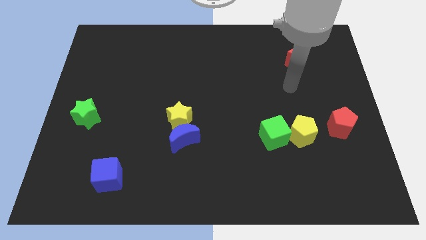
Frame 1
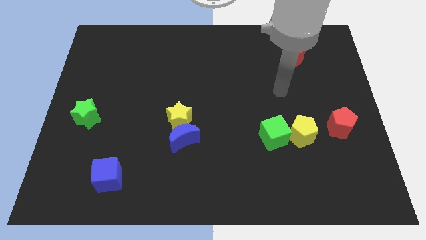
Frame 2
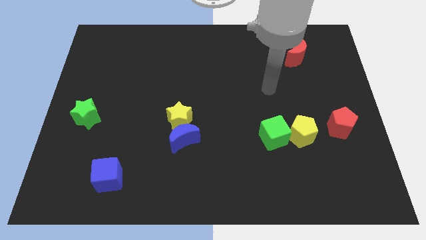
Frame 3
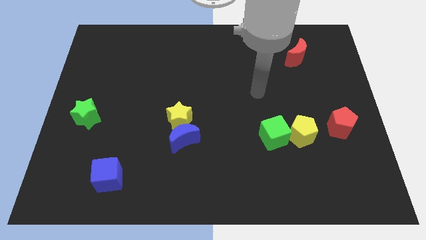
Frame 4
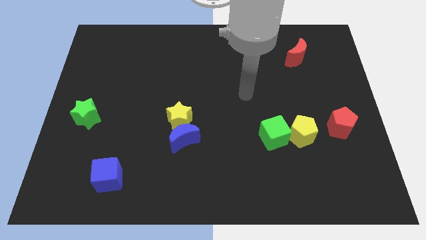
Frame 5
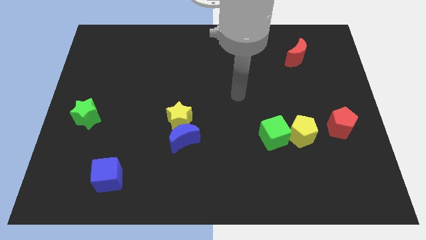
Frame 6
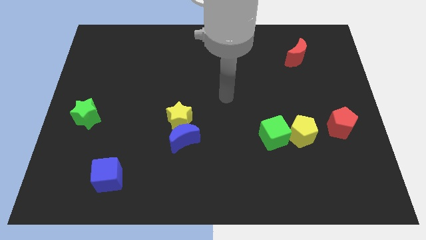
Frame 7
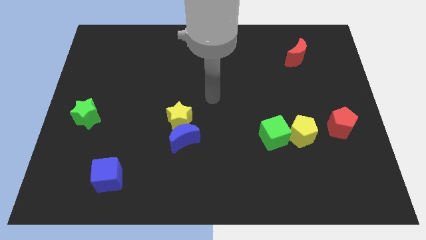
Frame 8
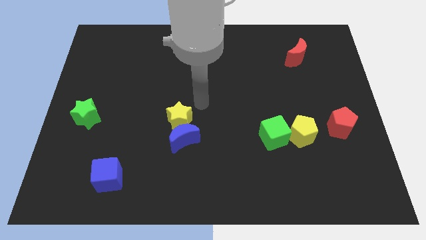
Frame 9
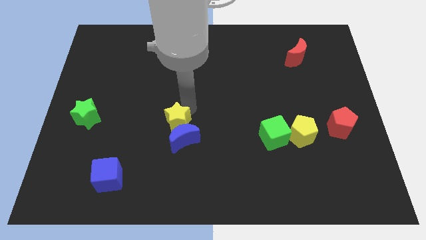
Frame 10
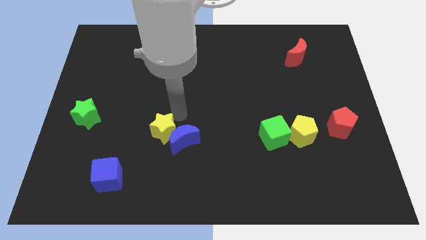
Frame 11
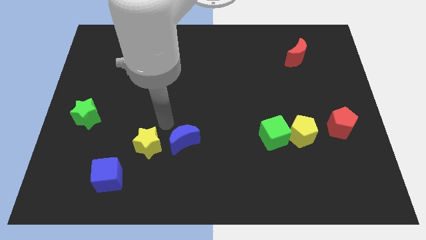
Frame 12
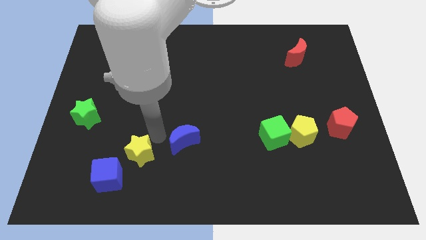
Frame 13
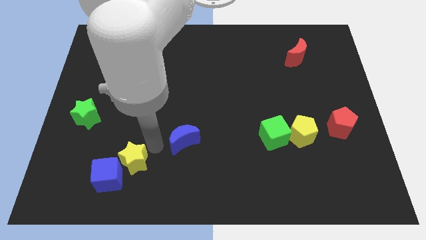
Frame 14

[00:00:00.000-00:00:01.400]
pull the blue moon apart from the yellow star

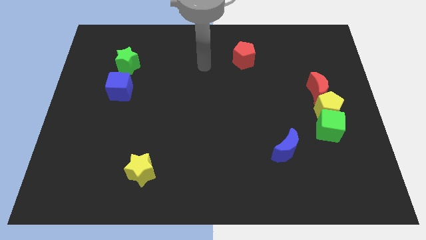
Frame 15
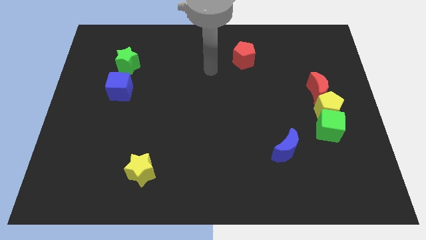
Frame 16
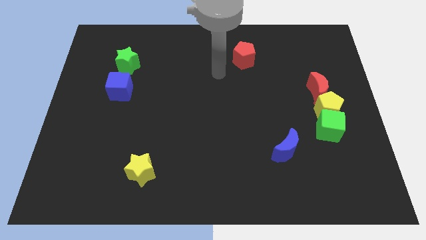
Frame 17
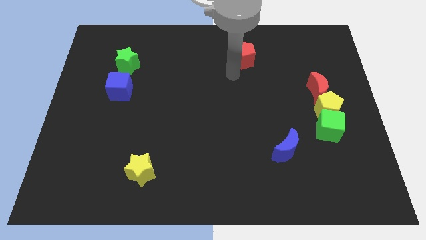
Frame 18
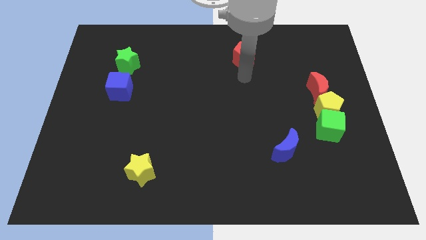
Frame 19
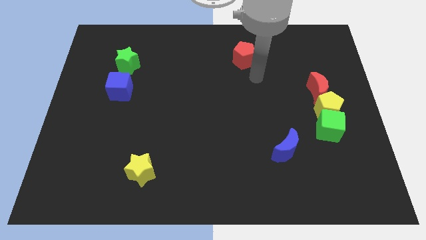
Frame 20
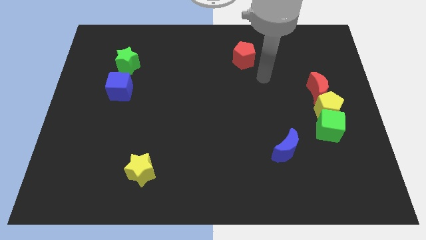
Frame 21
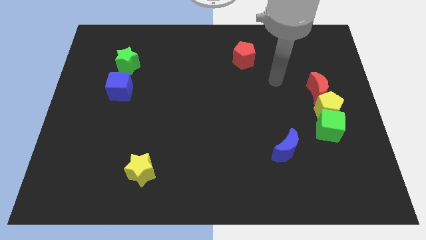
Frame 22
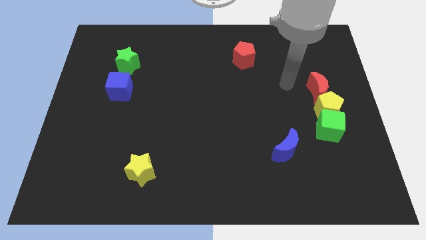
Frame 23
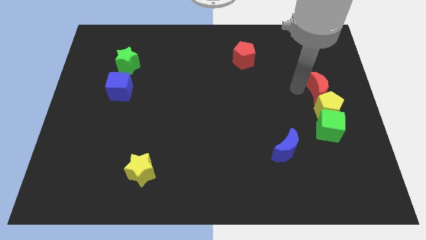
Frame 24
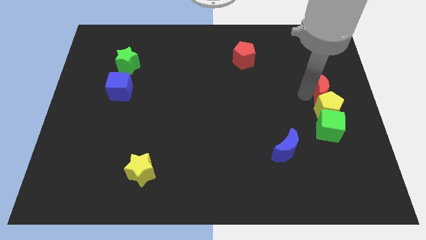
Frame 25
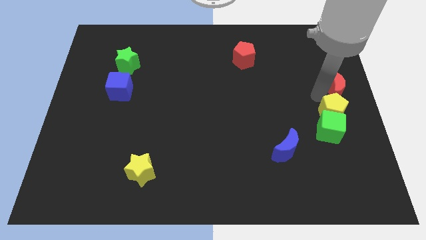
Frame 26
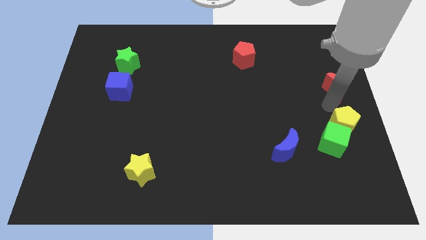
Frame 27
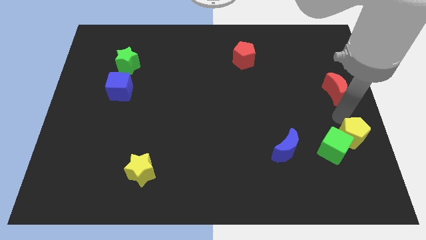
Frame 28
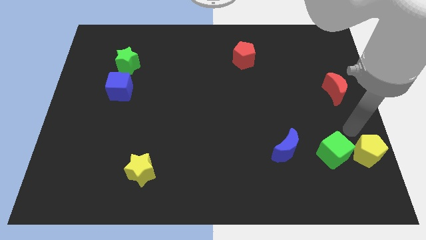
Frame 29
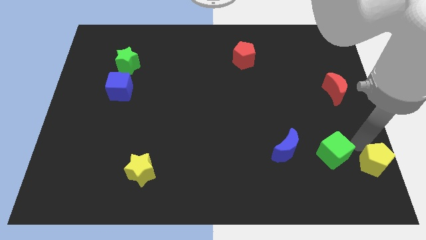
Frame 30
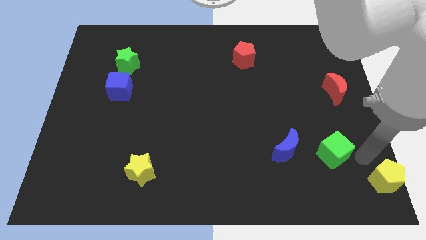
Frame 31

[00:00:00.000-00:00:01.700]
separate the green cube from the yellow pentagon

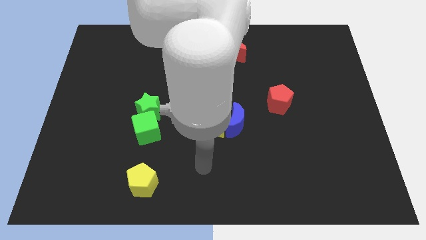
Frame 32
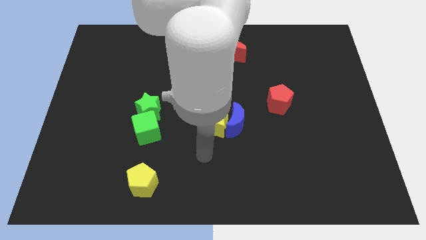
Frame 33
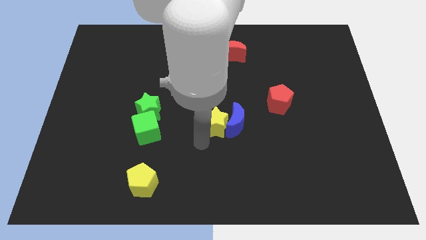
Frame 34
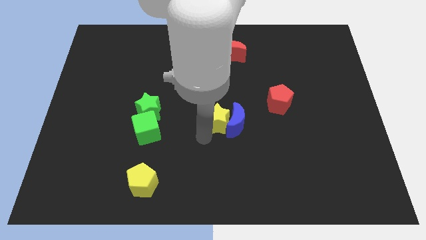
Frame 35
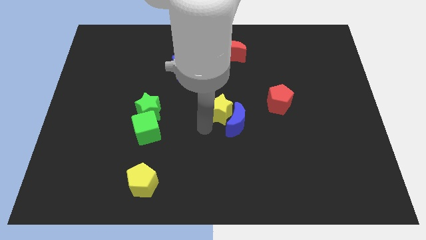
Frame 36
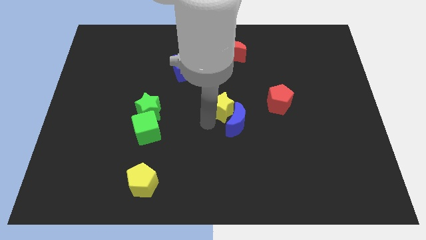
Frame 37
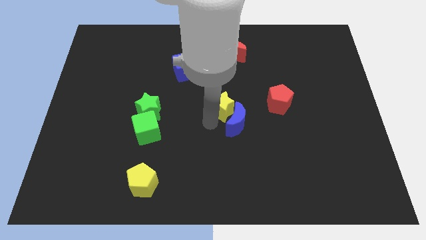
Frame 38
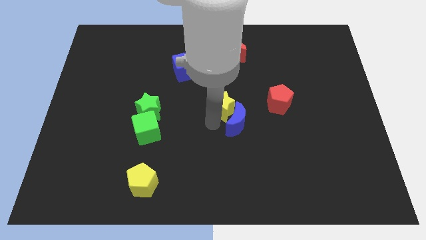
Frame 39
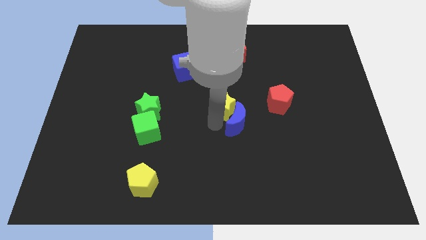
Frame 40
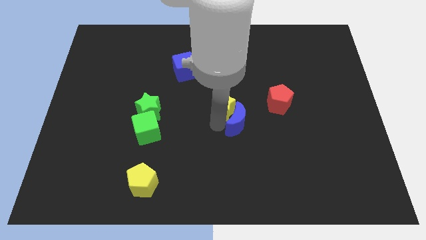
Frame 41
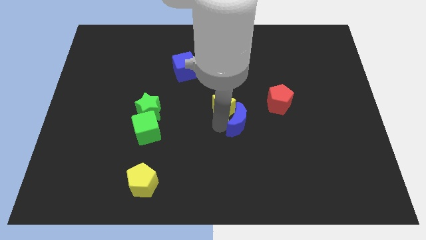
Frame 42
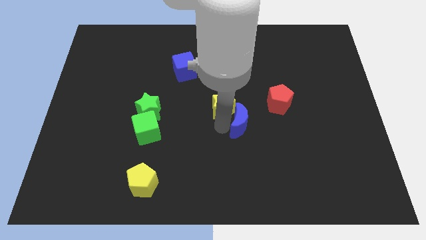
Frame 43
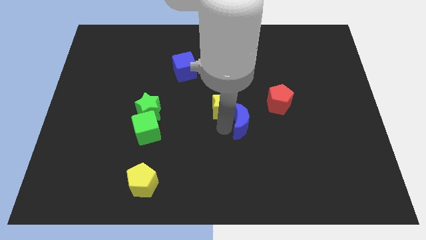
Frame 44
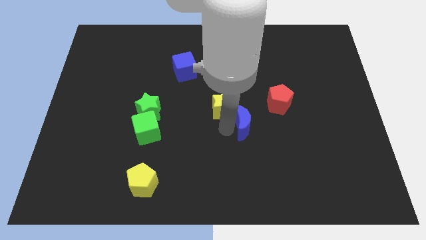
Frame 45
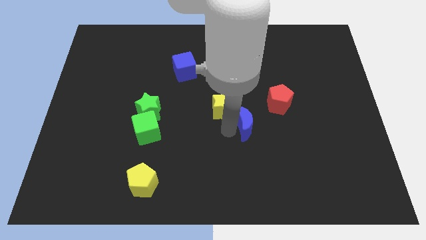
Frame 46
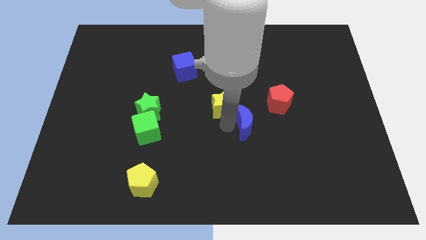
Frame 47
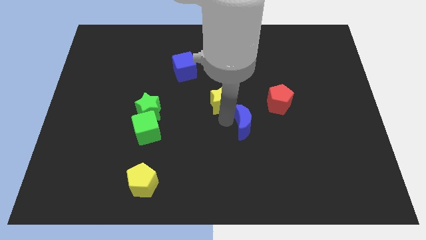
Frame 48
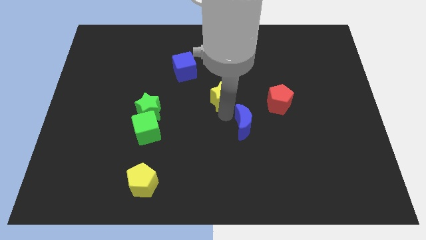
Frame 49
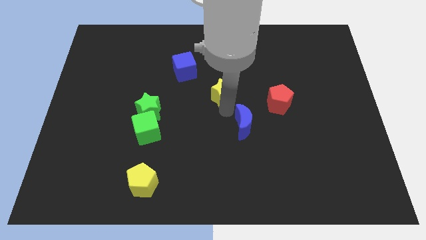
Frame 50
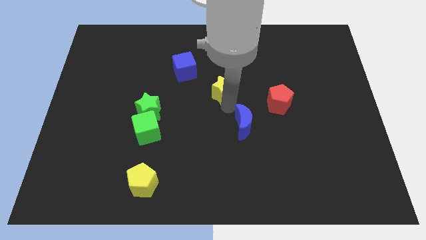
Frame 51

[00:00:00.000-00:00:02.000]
separate the blue moon from the yellow star

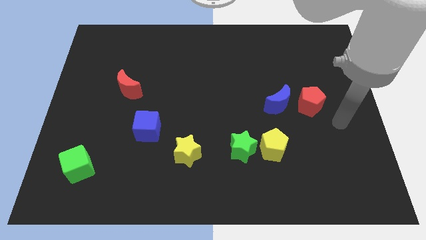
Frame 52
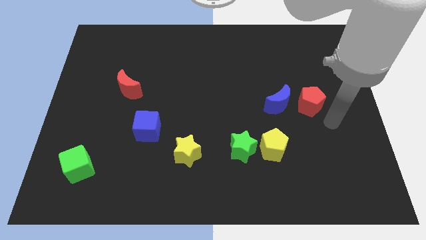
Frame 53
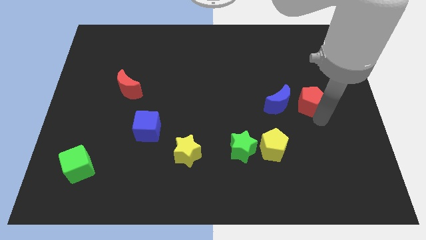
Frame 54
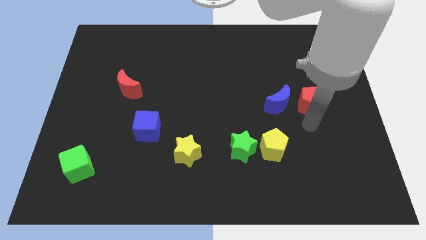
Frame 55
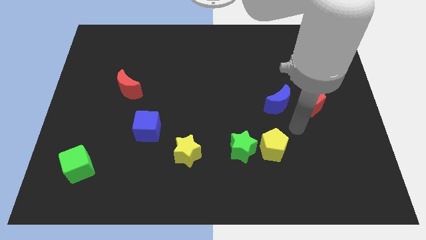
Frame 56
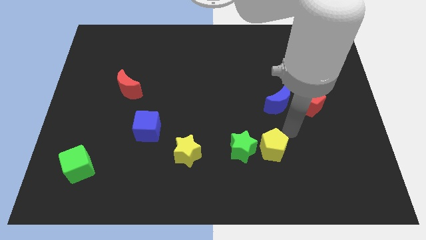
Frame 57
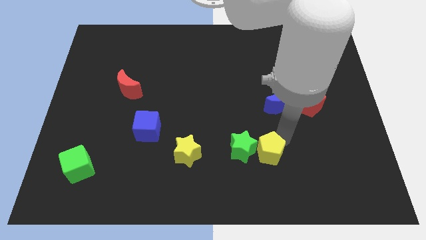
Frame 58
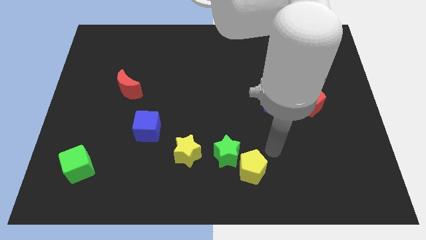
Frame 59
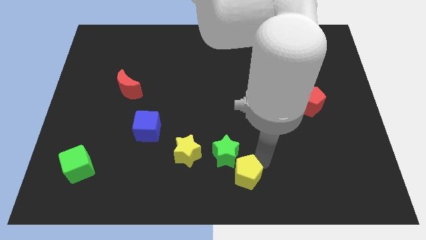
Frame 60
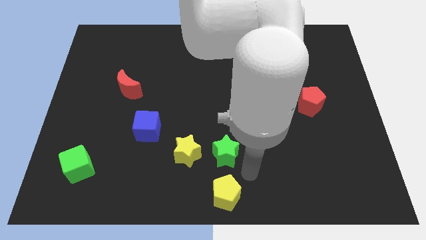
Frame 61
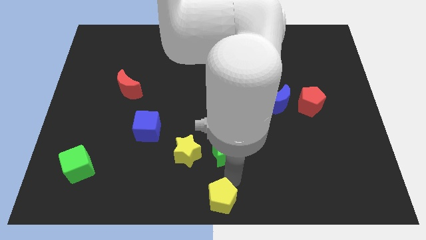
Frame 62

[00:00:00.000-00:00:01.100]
pull the green star apart from the yellow pentagon

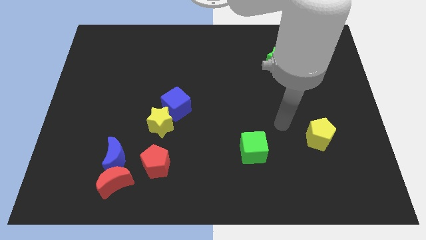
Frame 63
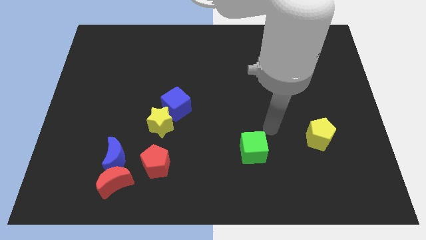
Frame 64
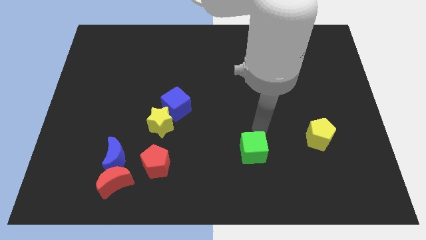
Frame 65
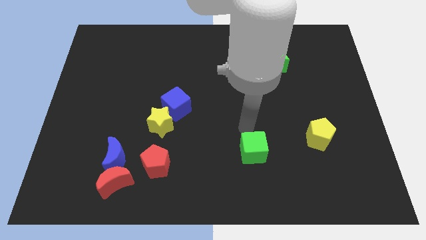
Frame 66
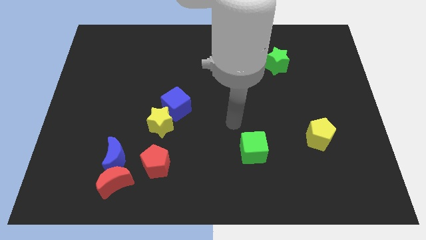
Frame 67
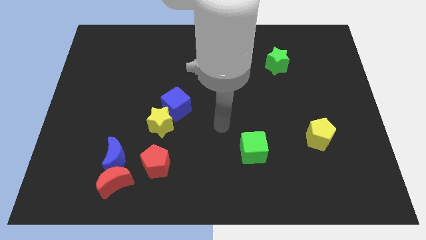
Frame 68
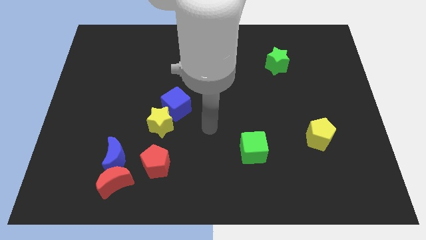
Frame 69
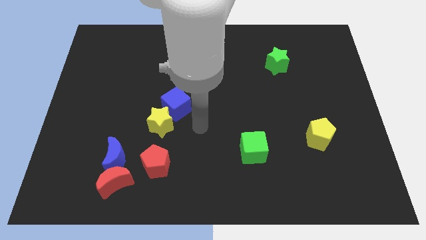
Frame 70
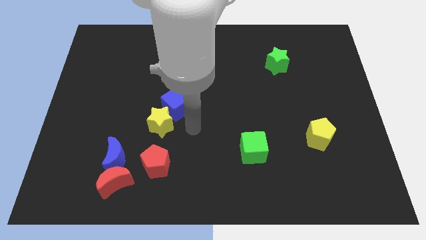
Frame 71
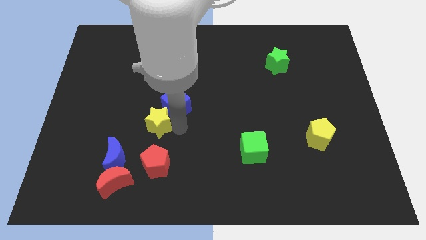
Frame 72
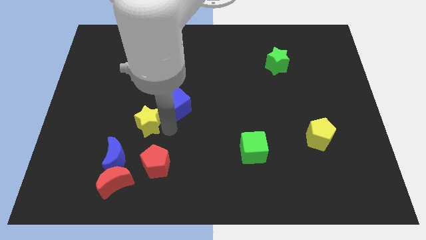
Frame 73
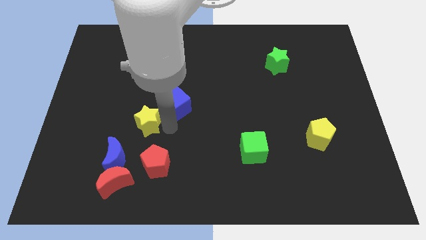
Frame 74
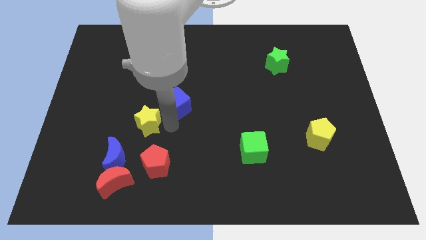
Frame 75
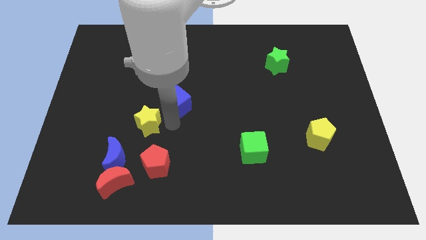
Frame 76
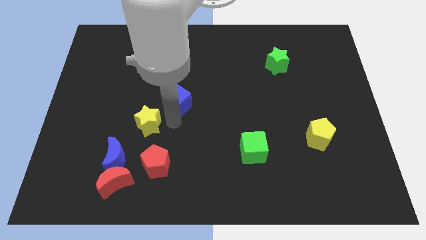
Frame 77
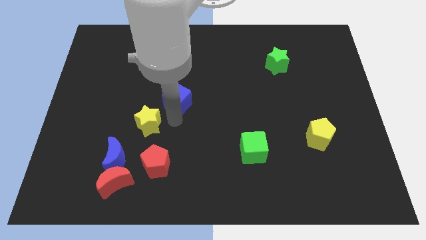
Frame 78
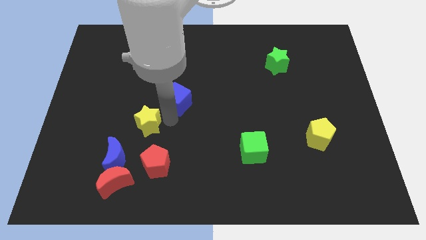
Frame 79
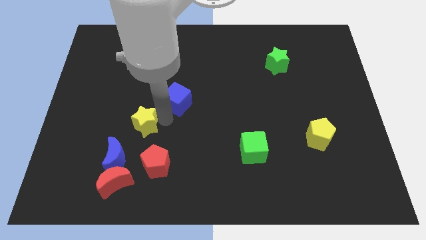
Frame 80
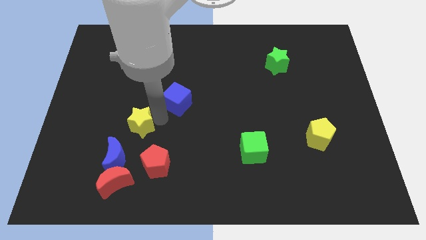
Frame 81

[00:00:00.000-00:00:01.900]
pull the blue cube apart from the yellow star

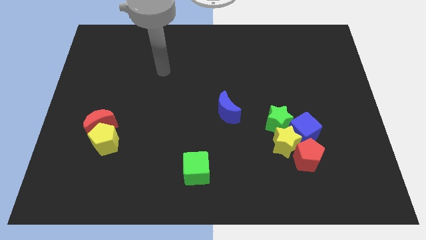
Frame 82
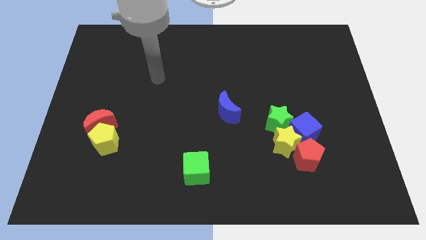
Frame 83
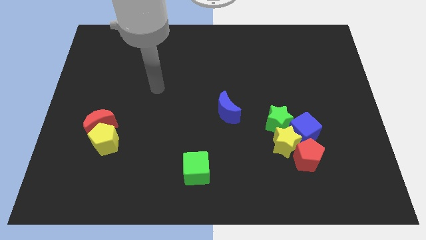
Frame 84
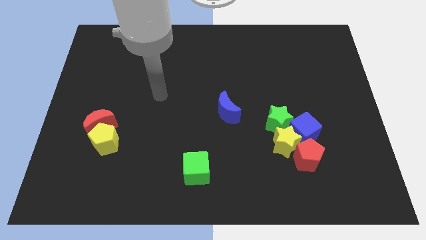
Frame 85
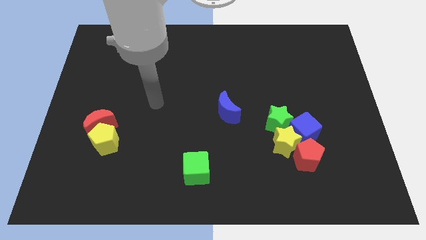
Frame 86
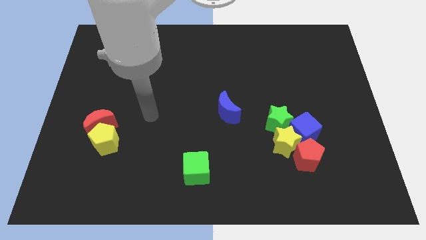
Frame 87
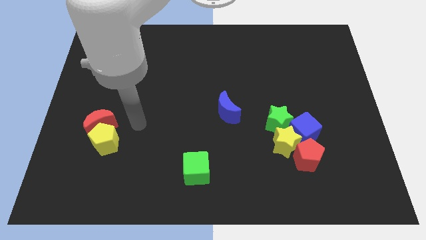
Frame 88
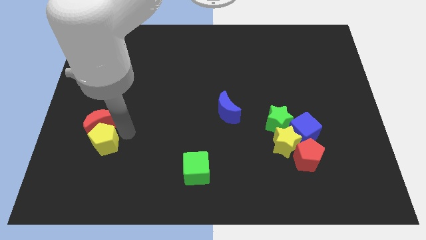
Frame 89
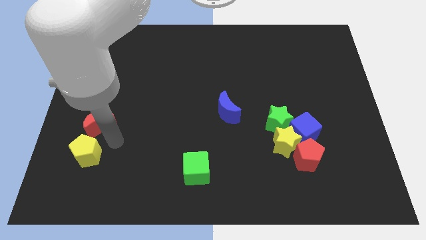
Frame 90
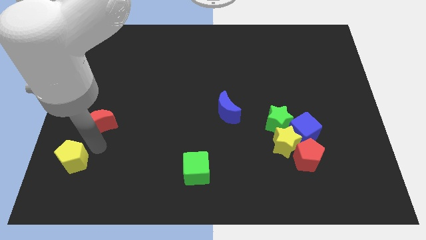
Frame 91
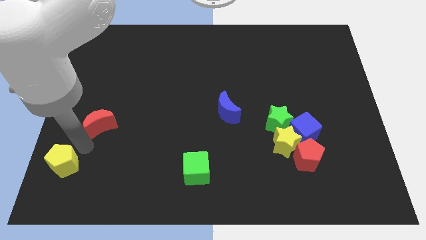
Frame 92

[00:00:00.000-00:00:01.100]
pull the red moon apart from the yellow pentagon

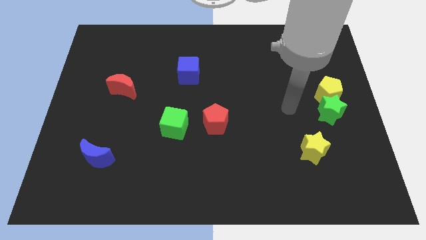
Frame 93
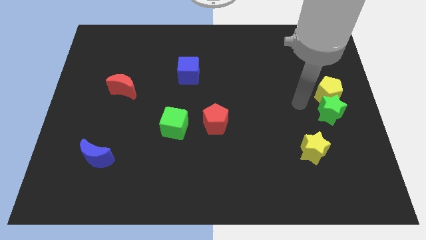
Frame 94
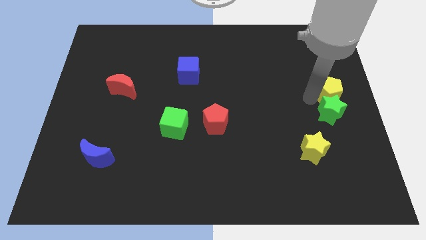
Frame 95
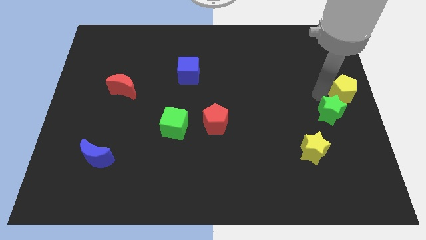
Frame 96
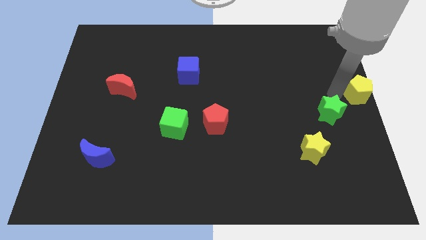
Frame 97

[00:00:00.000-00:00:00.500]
separate the green star from the yellow pentagon
